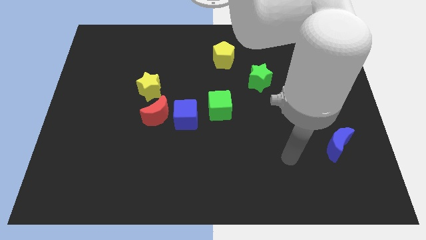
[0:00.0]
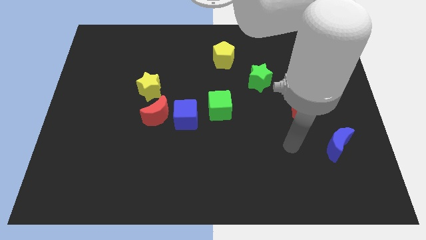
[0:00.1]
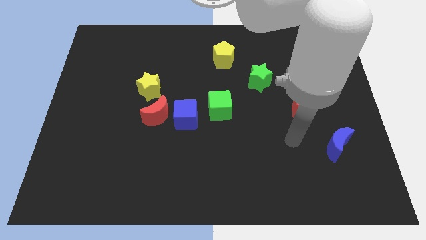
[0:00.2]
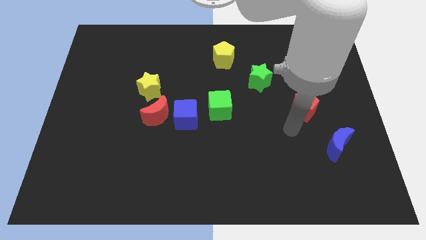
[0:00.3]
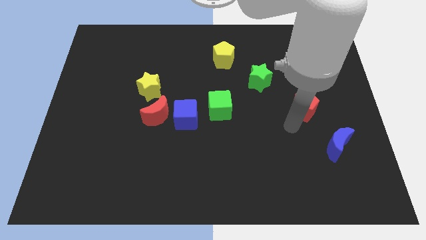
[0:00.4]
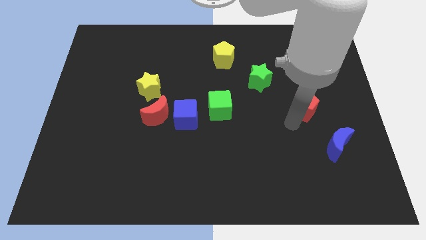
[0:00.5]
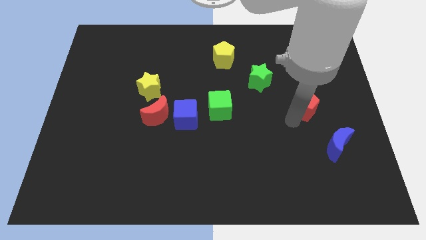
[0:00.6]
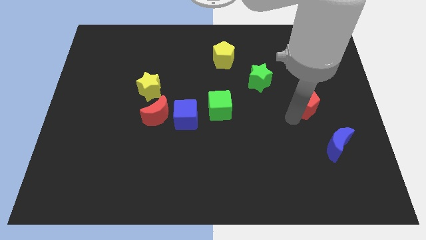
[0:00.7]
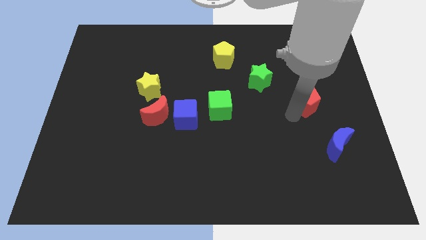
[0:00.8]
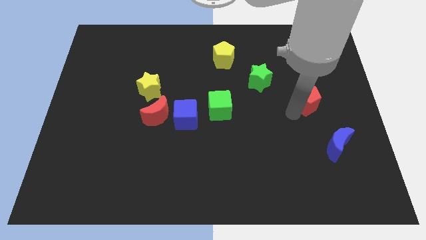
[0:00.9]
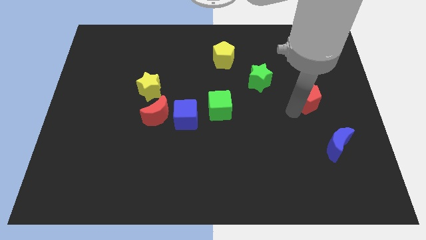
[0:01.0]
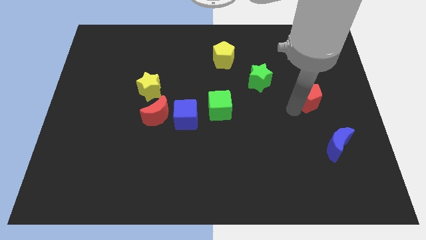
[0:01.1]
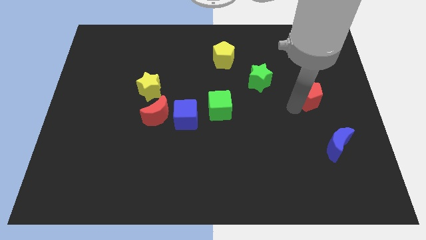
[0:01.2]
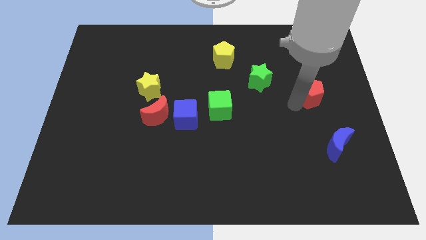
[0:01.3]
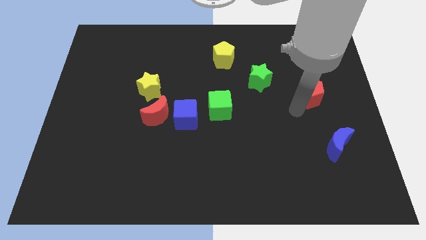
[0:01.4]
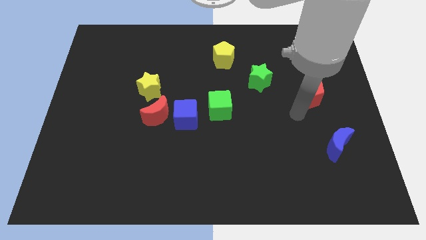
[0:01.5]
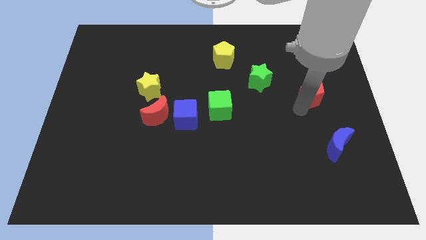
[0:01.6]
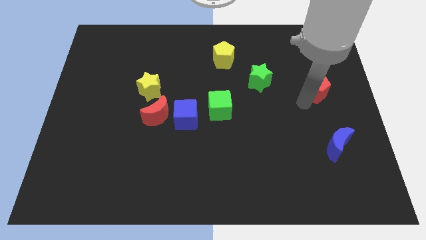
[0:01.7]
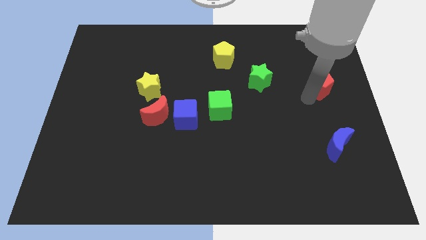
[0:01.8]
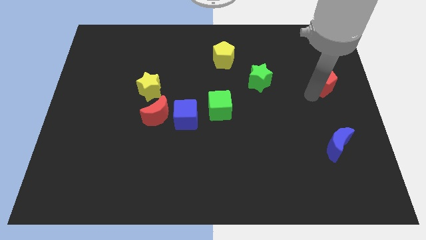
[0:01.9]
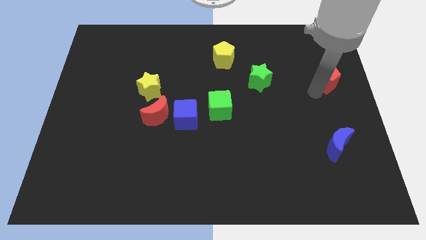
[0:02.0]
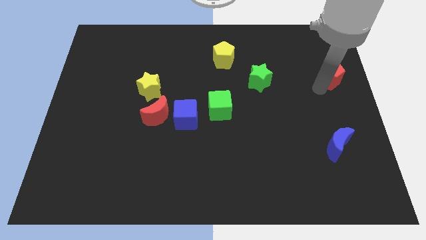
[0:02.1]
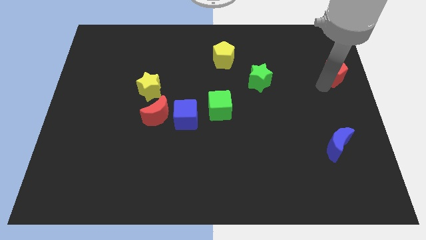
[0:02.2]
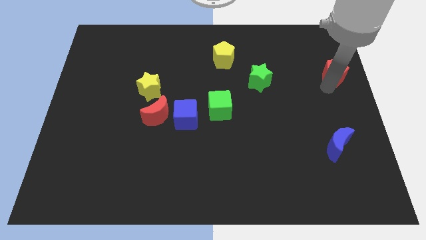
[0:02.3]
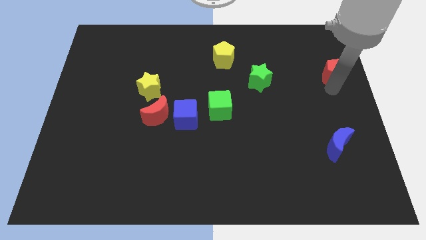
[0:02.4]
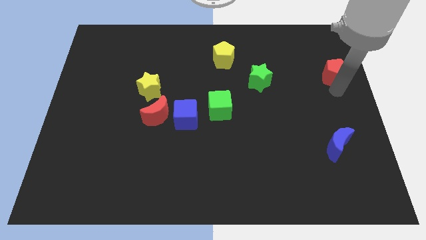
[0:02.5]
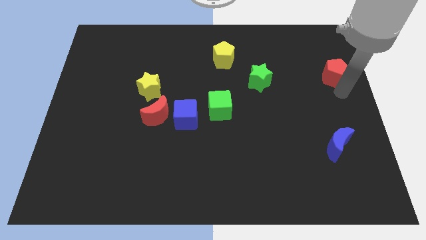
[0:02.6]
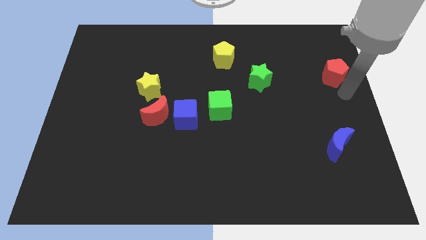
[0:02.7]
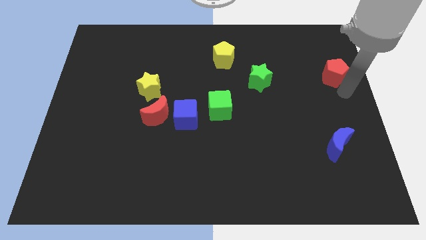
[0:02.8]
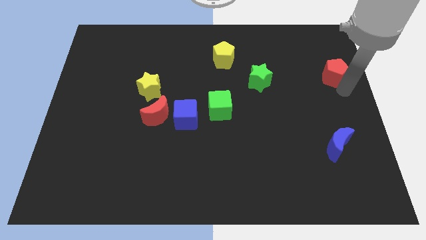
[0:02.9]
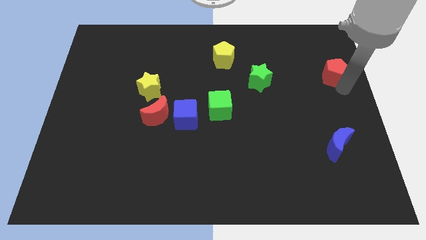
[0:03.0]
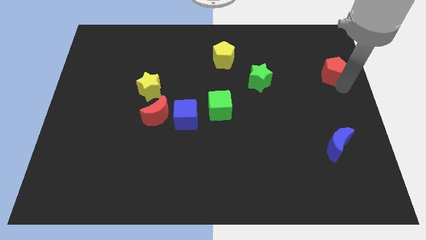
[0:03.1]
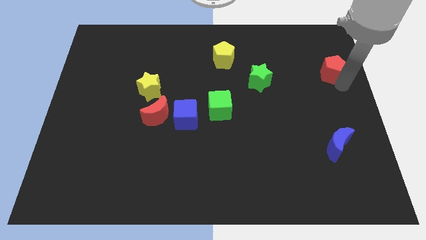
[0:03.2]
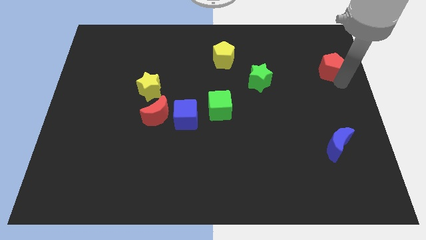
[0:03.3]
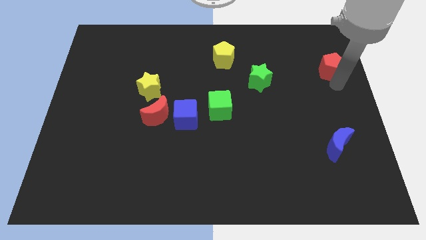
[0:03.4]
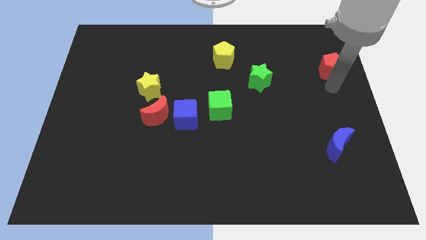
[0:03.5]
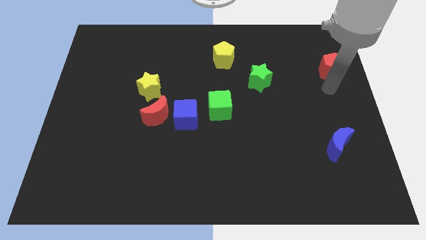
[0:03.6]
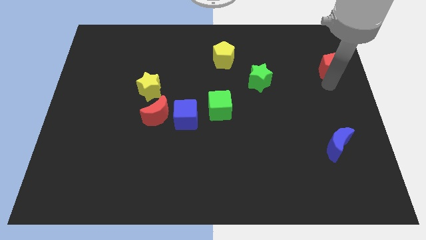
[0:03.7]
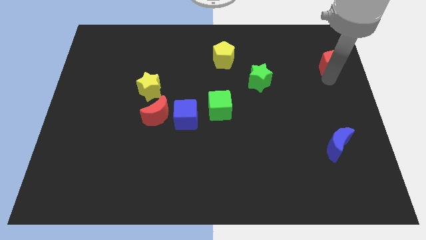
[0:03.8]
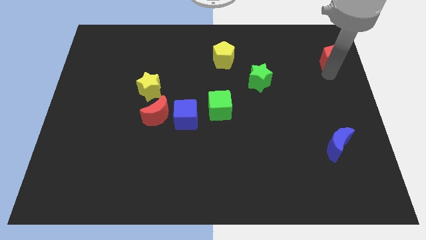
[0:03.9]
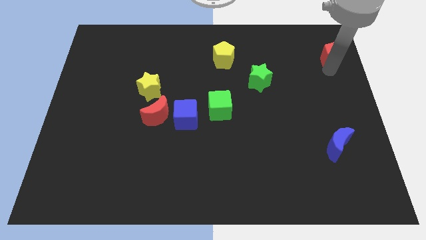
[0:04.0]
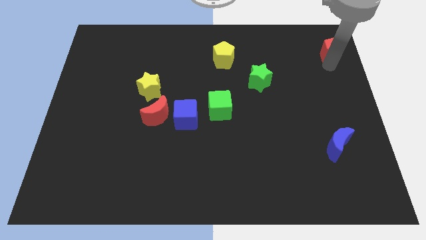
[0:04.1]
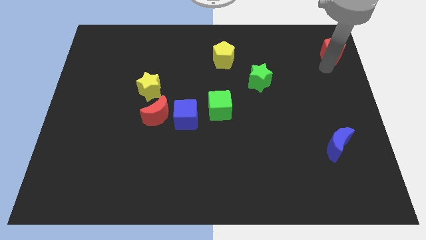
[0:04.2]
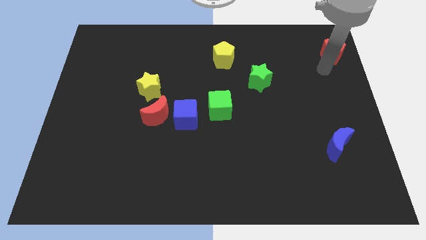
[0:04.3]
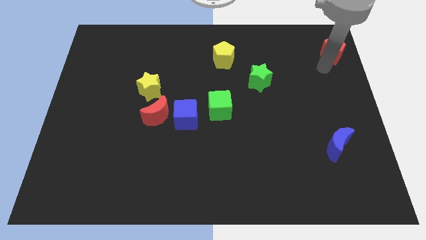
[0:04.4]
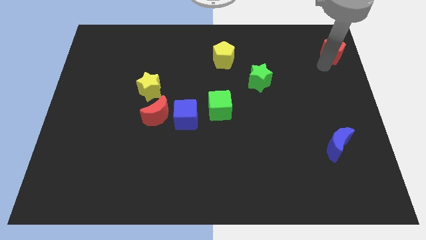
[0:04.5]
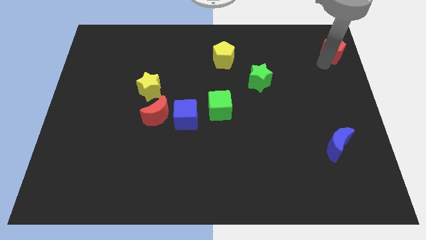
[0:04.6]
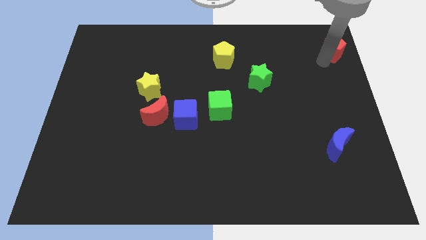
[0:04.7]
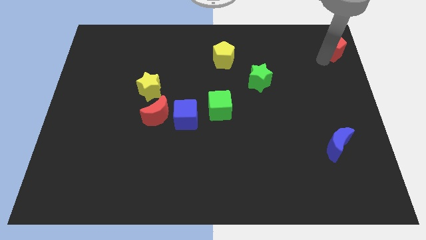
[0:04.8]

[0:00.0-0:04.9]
slide the red pentagon to the top right corner

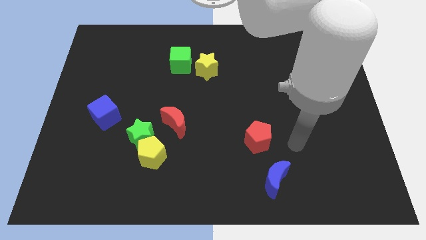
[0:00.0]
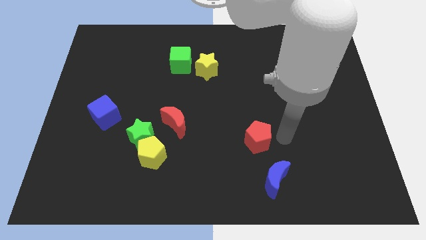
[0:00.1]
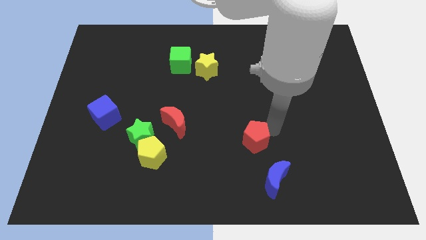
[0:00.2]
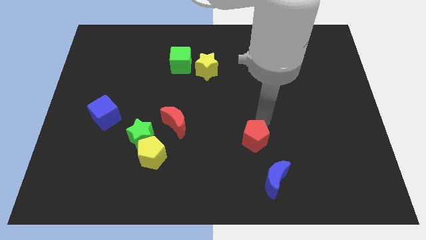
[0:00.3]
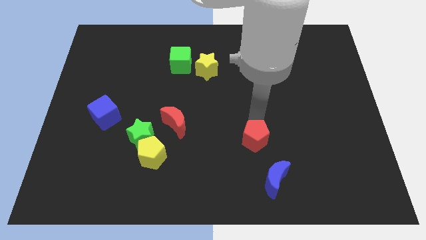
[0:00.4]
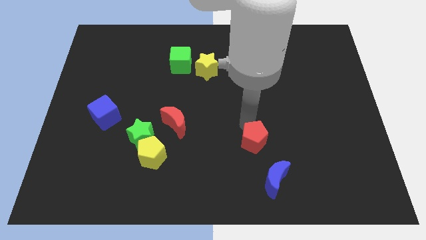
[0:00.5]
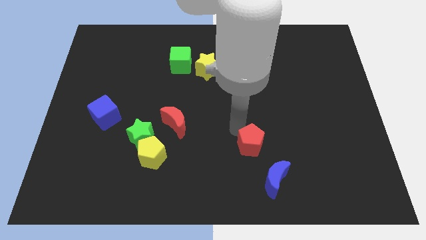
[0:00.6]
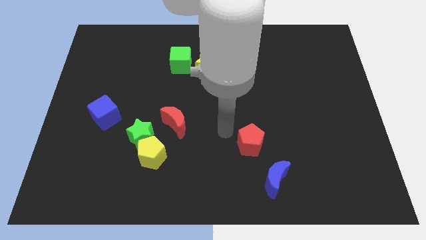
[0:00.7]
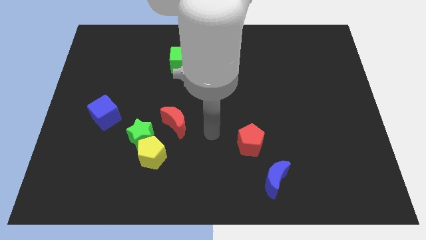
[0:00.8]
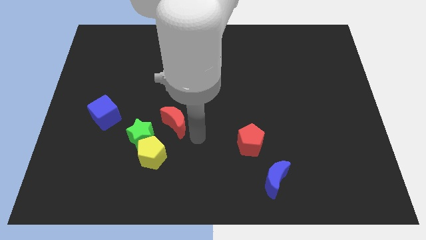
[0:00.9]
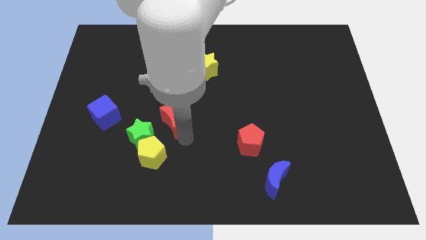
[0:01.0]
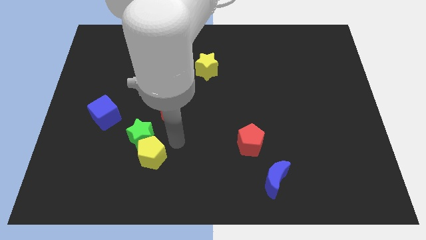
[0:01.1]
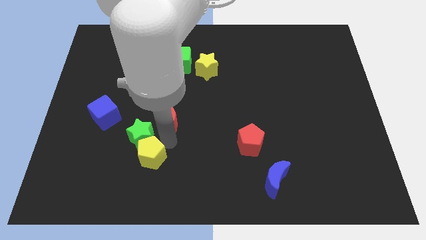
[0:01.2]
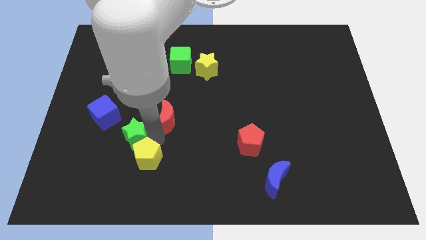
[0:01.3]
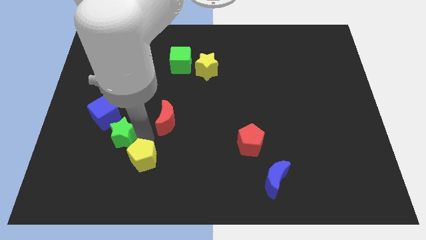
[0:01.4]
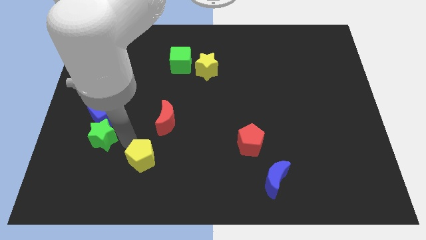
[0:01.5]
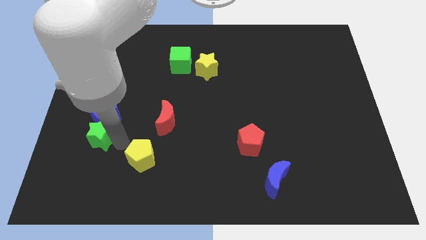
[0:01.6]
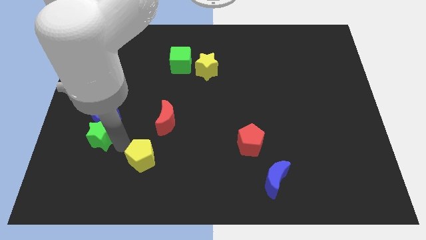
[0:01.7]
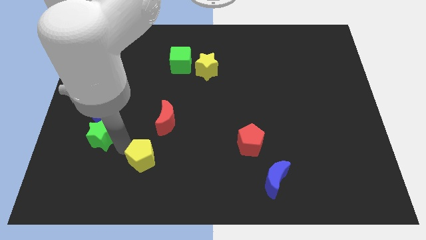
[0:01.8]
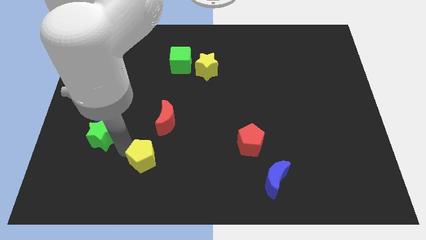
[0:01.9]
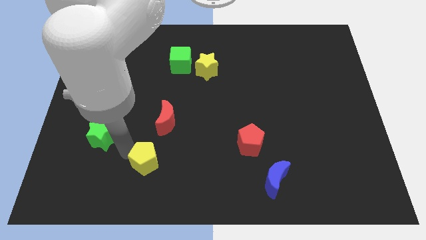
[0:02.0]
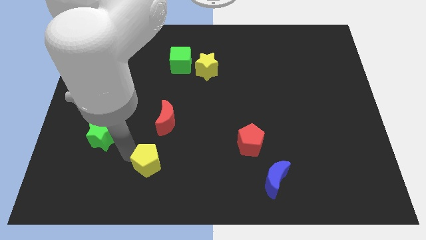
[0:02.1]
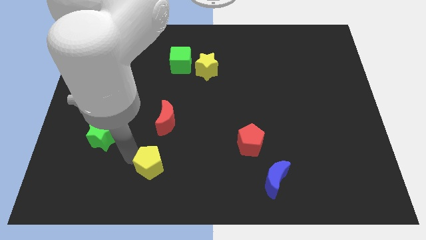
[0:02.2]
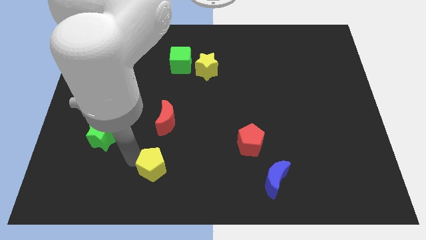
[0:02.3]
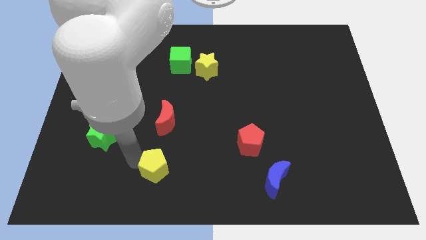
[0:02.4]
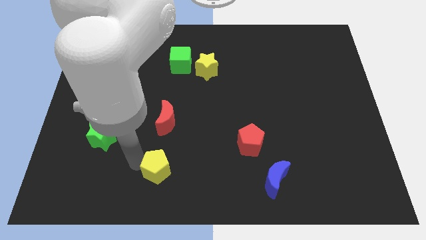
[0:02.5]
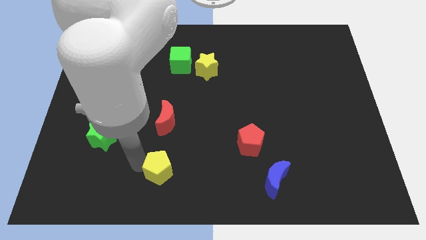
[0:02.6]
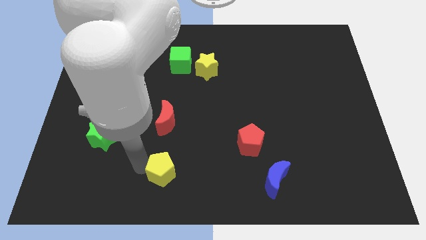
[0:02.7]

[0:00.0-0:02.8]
slide the yellow pentagon to the bottom
